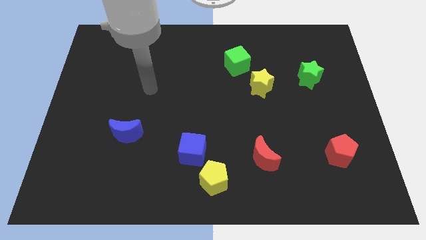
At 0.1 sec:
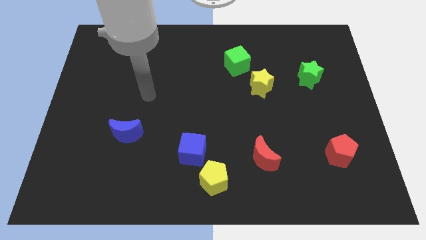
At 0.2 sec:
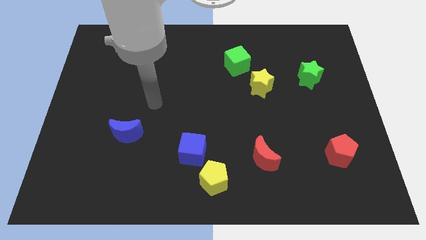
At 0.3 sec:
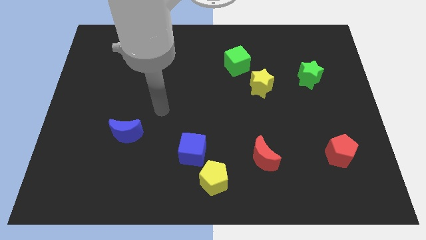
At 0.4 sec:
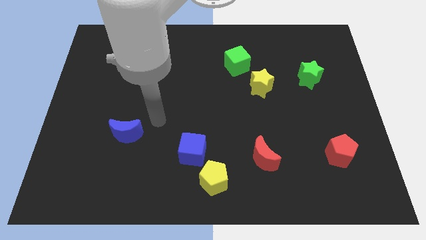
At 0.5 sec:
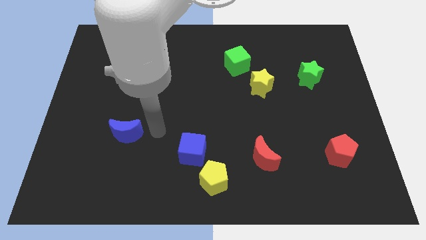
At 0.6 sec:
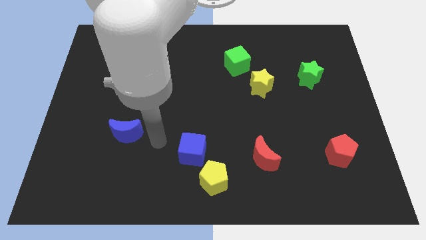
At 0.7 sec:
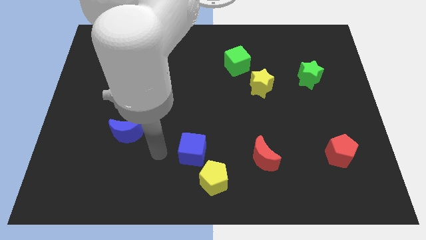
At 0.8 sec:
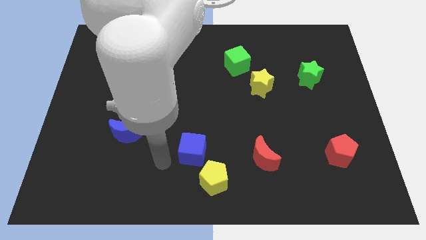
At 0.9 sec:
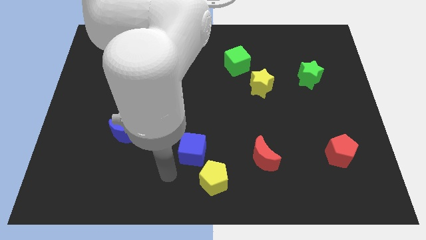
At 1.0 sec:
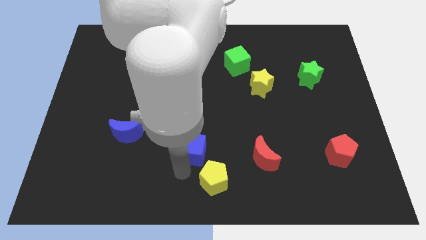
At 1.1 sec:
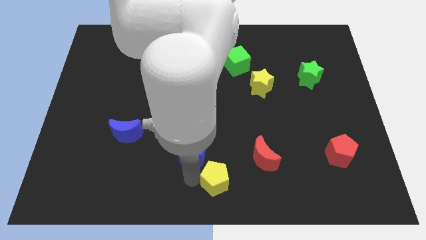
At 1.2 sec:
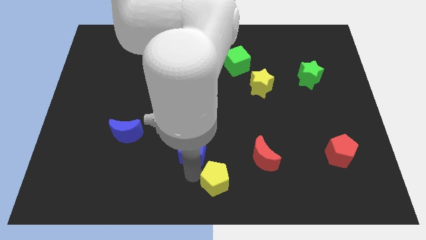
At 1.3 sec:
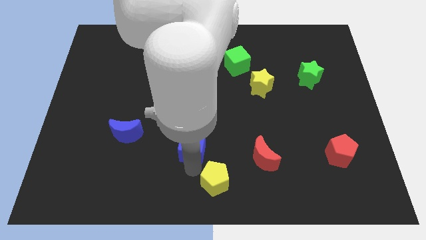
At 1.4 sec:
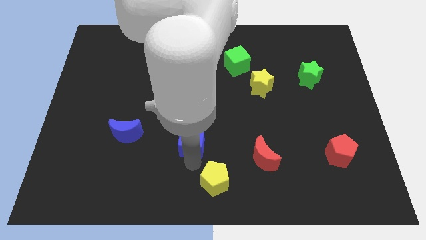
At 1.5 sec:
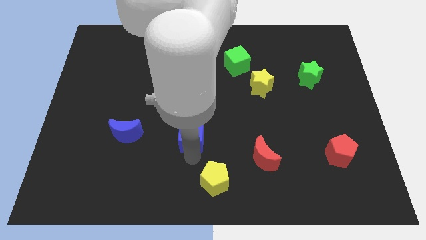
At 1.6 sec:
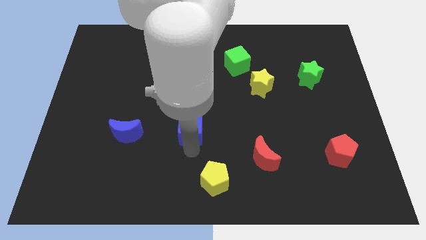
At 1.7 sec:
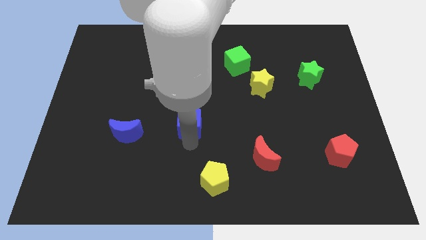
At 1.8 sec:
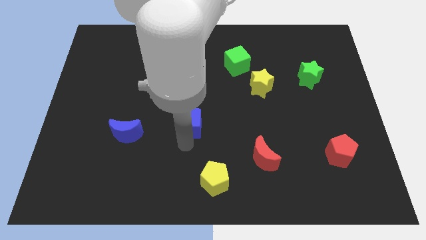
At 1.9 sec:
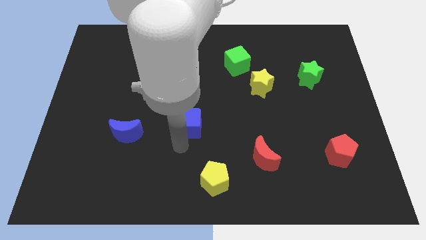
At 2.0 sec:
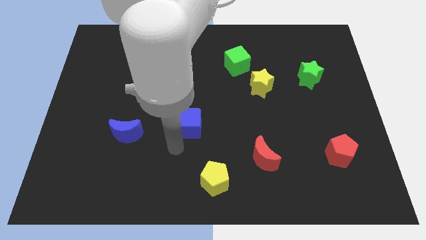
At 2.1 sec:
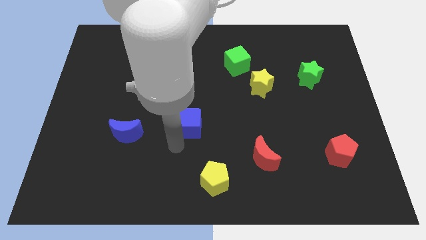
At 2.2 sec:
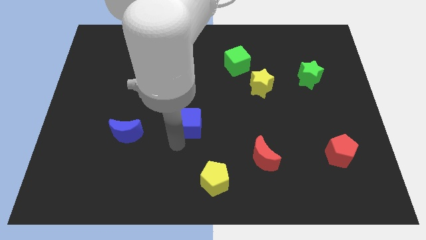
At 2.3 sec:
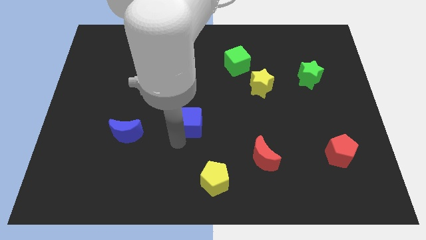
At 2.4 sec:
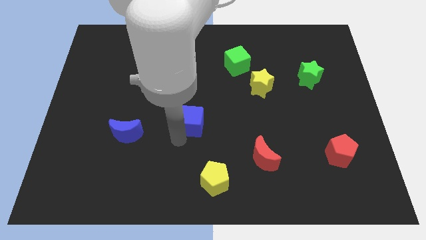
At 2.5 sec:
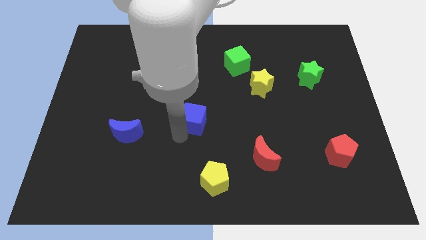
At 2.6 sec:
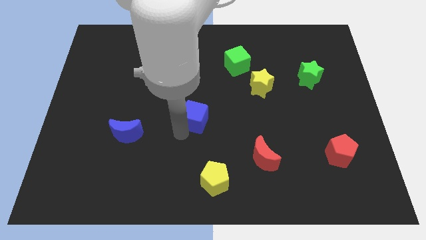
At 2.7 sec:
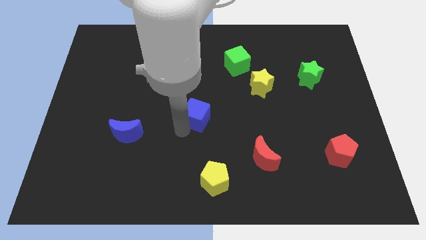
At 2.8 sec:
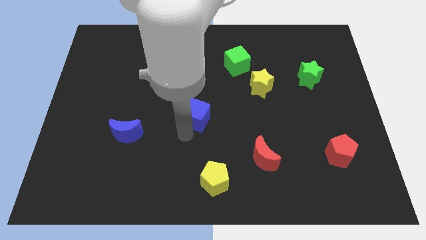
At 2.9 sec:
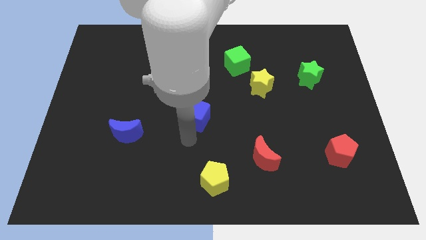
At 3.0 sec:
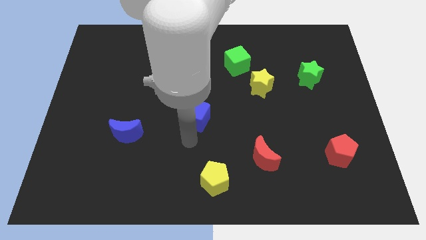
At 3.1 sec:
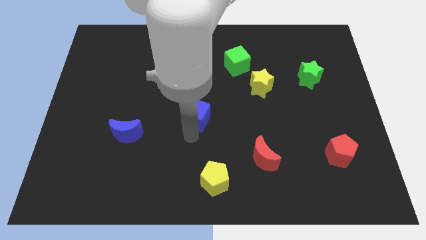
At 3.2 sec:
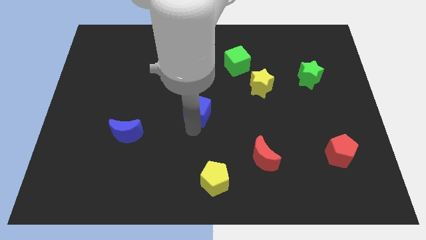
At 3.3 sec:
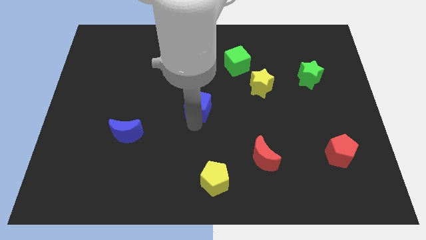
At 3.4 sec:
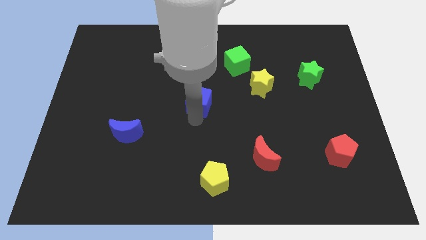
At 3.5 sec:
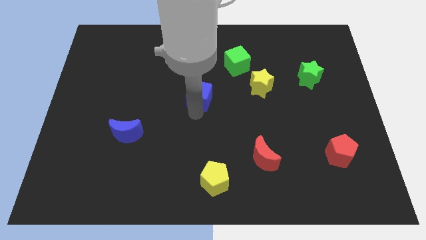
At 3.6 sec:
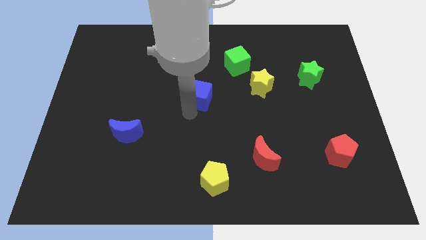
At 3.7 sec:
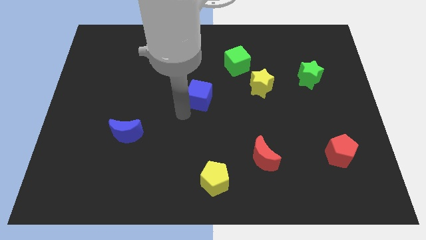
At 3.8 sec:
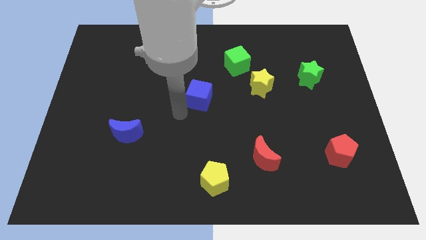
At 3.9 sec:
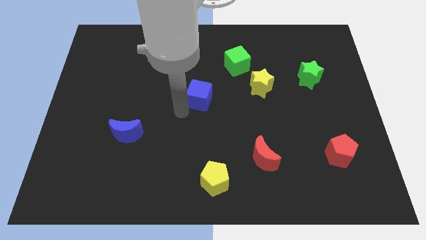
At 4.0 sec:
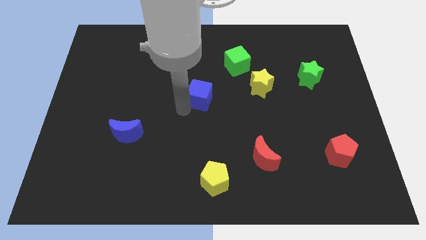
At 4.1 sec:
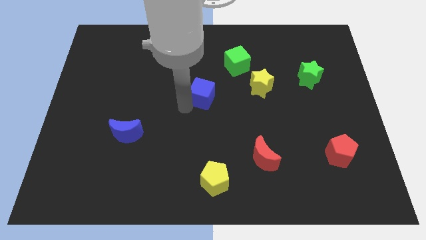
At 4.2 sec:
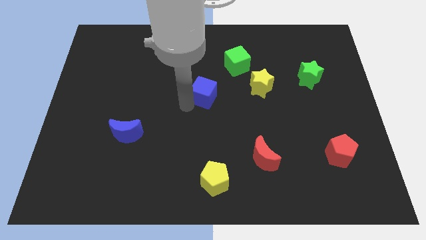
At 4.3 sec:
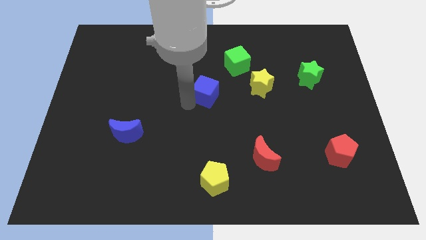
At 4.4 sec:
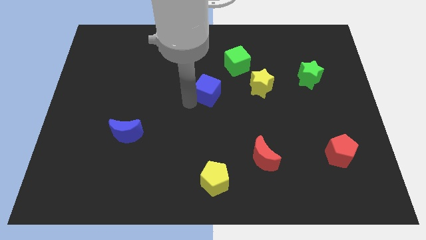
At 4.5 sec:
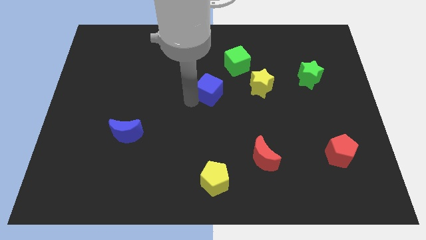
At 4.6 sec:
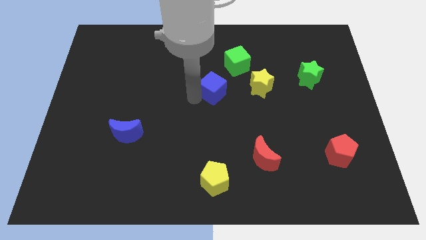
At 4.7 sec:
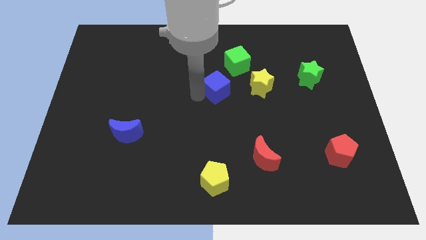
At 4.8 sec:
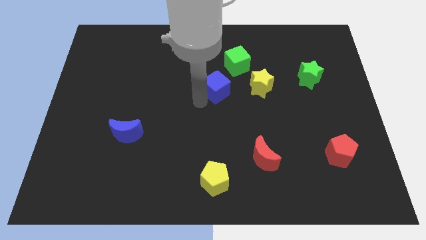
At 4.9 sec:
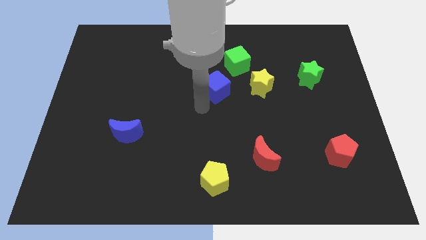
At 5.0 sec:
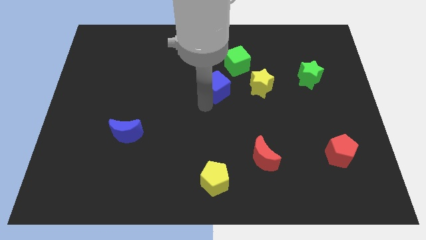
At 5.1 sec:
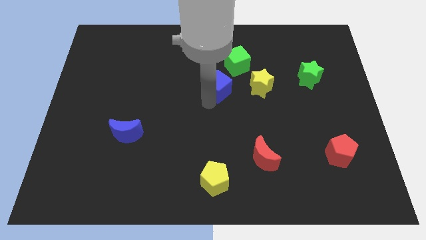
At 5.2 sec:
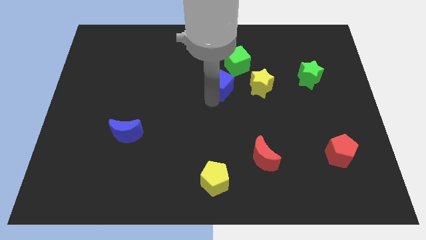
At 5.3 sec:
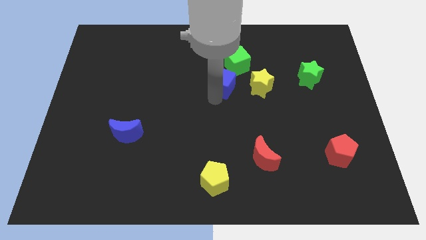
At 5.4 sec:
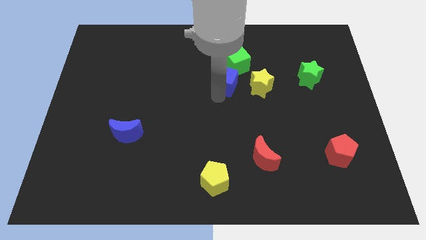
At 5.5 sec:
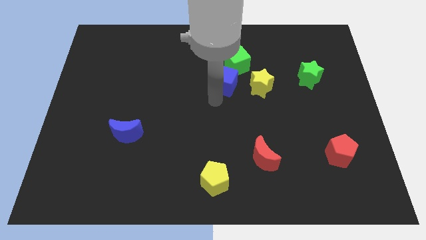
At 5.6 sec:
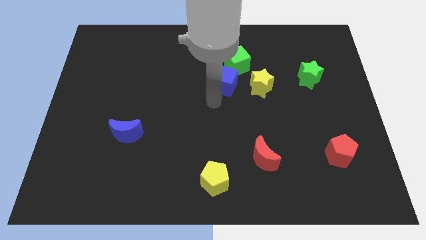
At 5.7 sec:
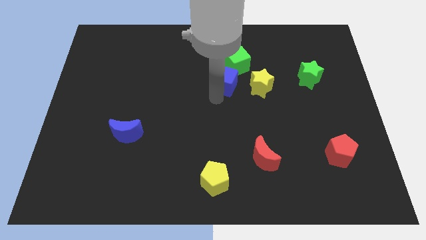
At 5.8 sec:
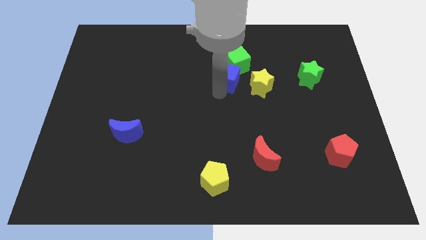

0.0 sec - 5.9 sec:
push the blue cube to the green cube

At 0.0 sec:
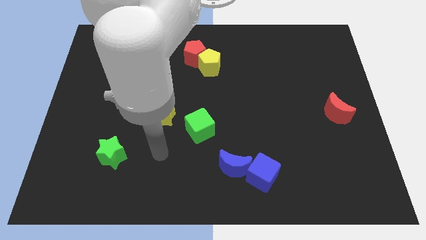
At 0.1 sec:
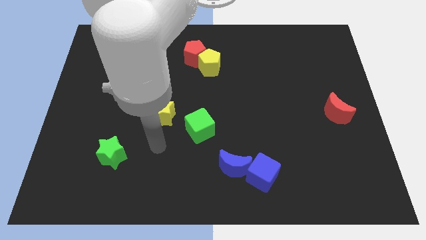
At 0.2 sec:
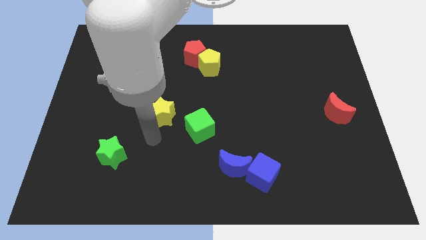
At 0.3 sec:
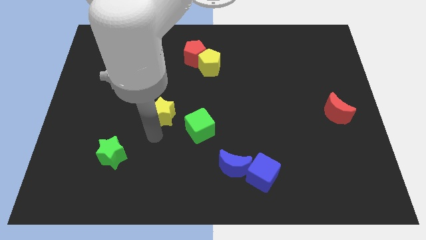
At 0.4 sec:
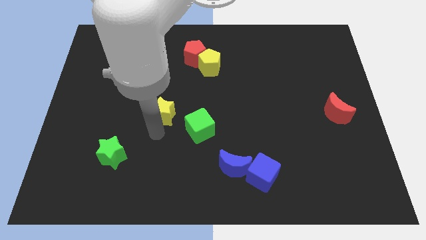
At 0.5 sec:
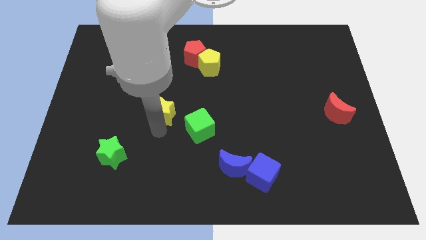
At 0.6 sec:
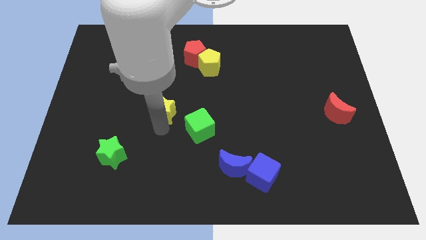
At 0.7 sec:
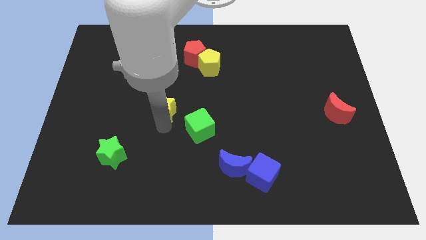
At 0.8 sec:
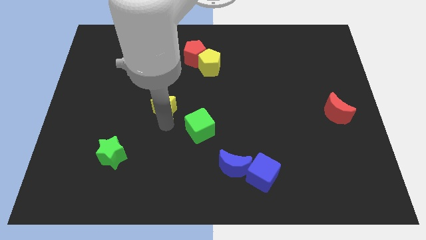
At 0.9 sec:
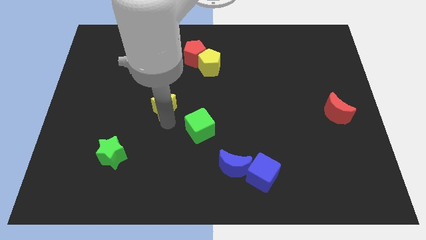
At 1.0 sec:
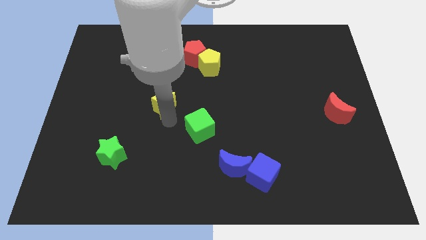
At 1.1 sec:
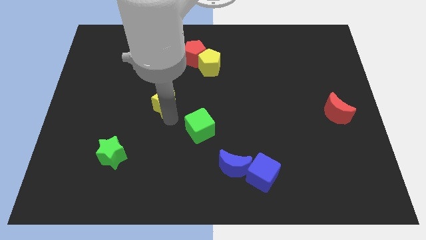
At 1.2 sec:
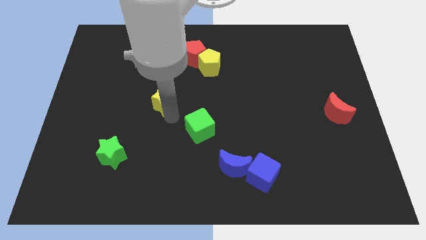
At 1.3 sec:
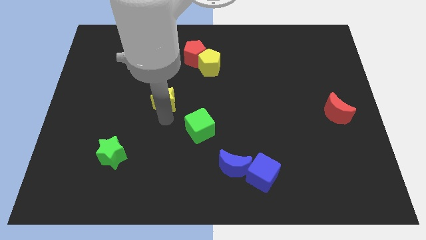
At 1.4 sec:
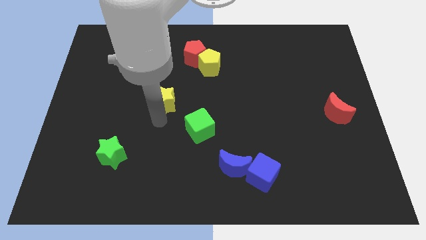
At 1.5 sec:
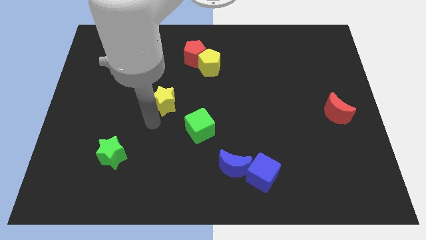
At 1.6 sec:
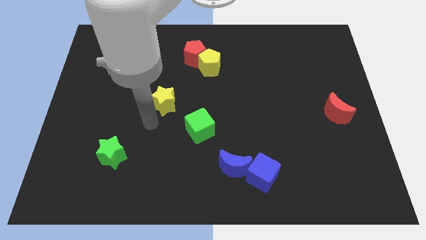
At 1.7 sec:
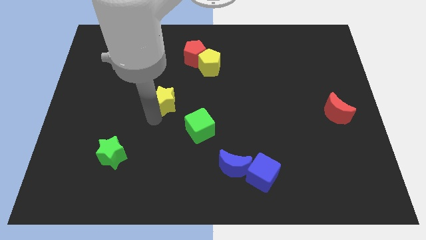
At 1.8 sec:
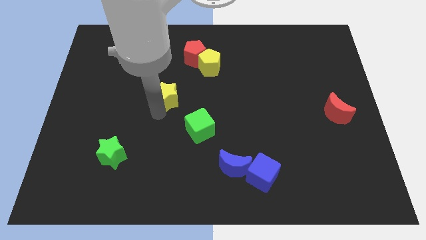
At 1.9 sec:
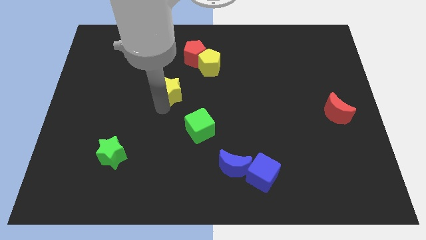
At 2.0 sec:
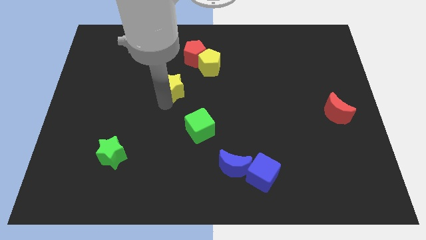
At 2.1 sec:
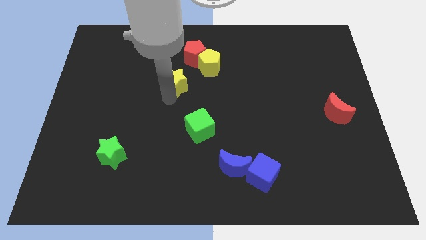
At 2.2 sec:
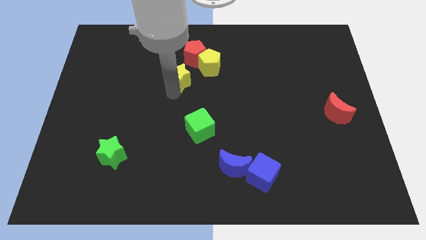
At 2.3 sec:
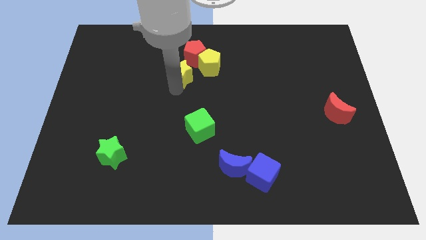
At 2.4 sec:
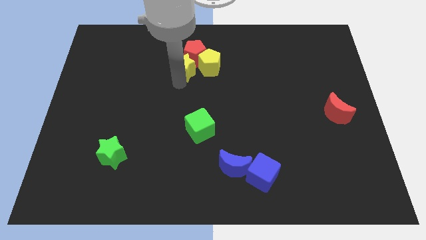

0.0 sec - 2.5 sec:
slide the yellow star next to the red pentagon
